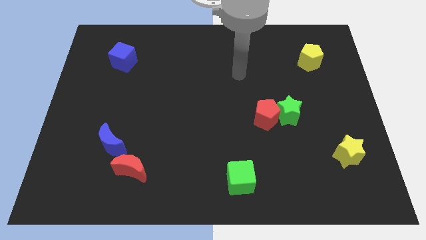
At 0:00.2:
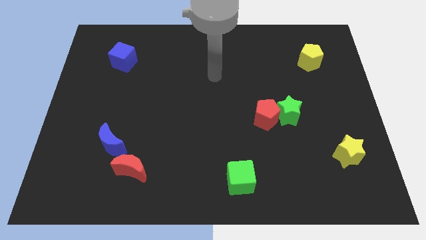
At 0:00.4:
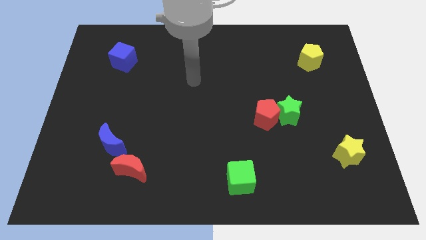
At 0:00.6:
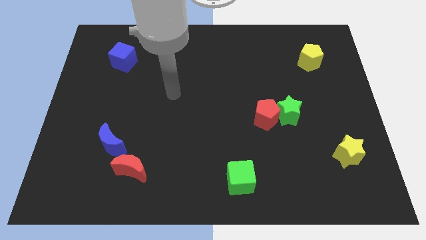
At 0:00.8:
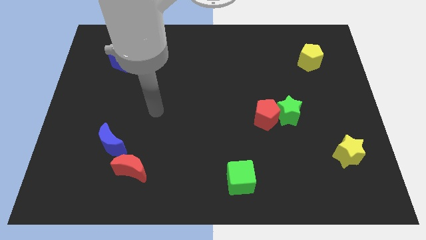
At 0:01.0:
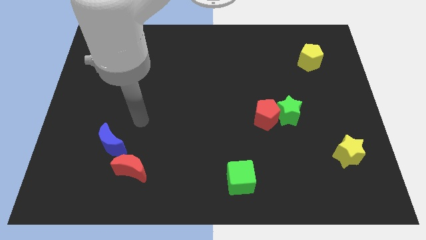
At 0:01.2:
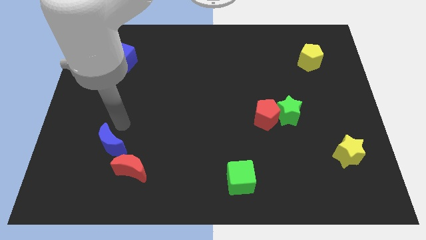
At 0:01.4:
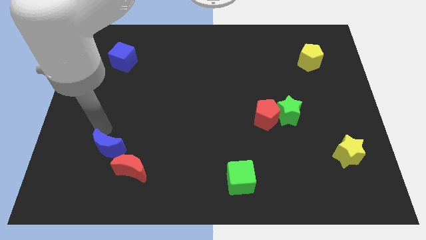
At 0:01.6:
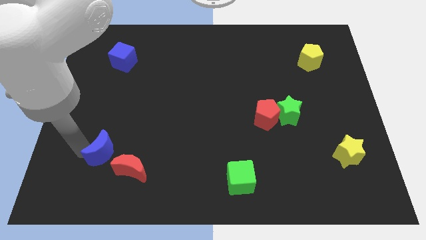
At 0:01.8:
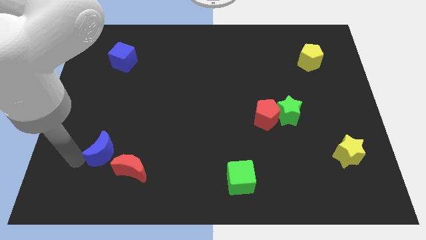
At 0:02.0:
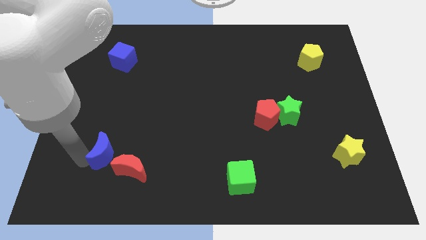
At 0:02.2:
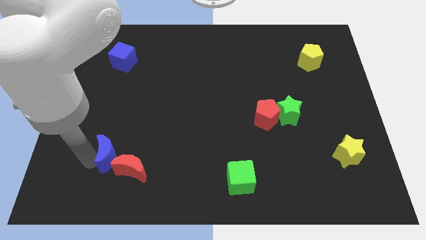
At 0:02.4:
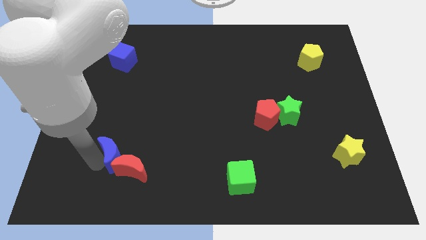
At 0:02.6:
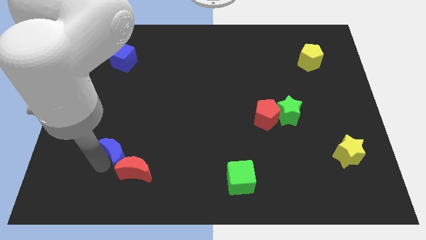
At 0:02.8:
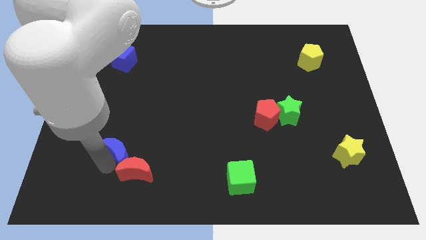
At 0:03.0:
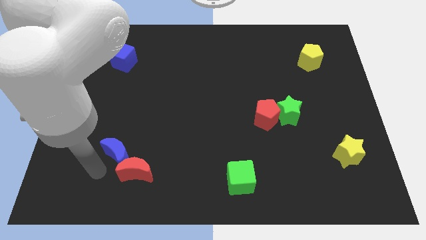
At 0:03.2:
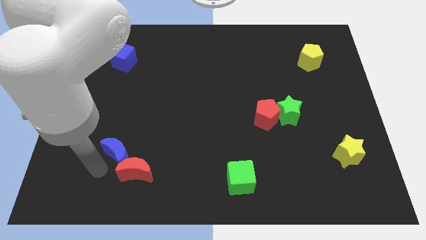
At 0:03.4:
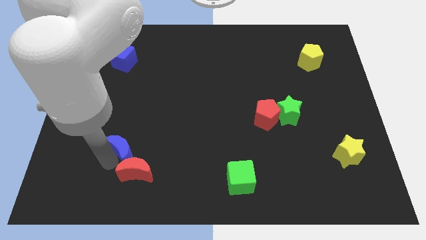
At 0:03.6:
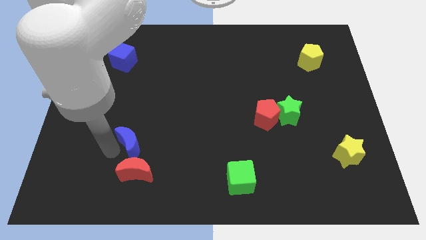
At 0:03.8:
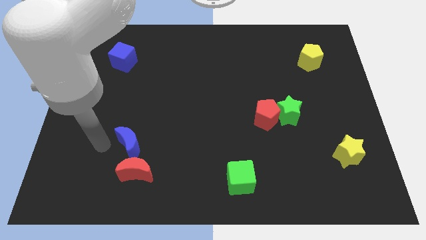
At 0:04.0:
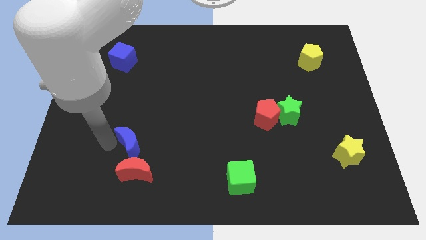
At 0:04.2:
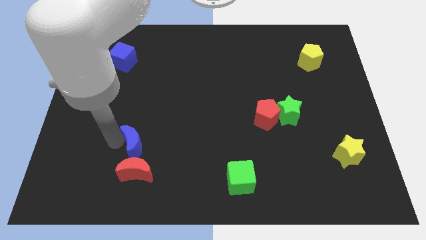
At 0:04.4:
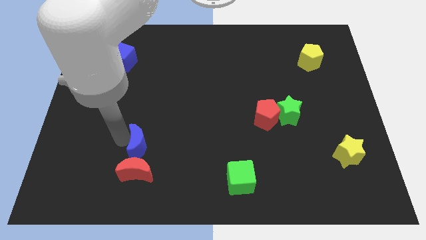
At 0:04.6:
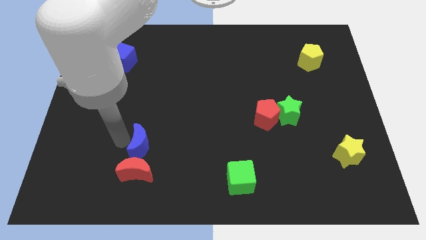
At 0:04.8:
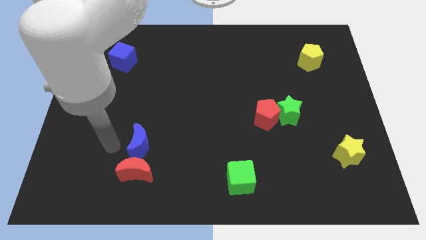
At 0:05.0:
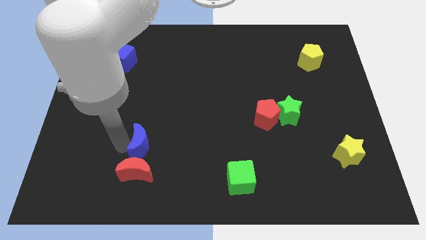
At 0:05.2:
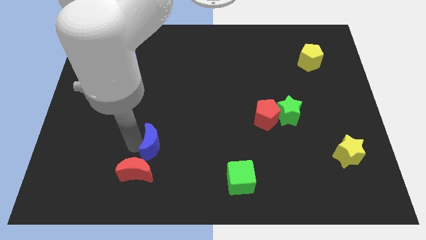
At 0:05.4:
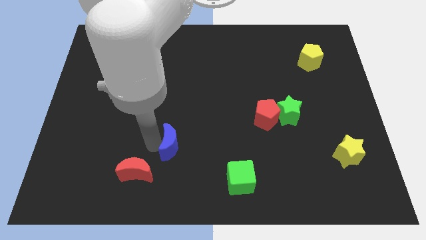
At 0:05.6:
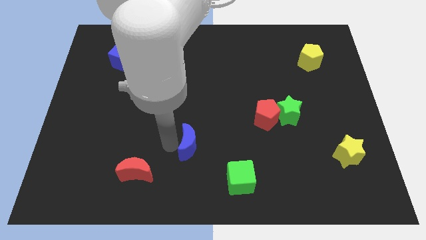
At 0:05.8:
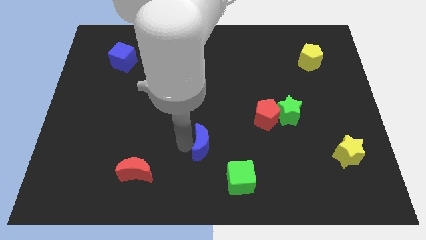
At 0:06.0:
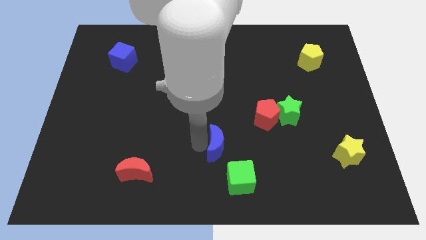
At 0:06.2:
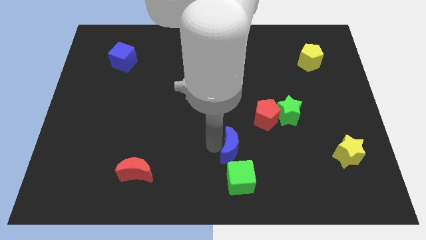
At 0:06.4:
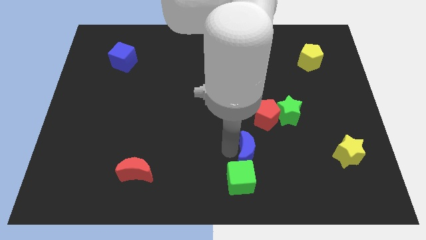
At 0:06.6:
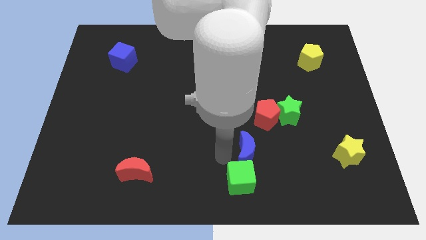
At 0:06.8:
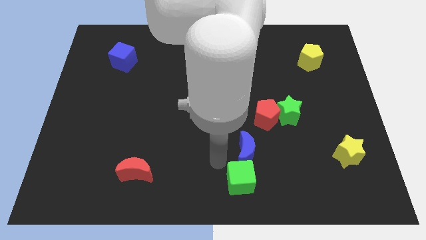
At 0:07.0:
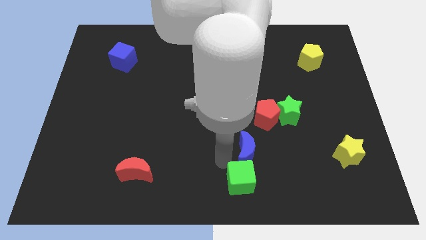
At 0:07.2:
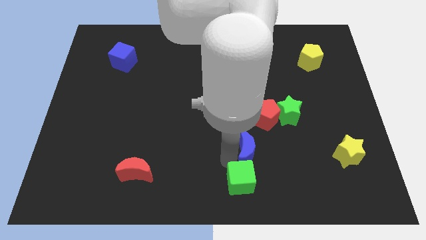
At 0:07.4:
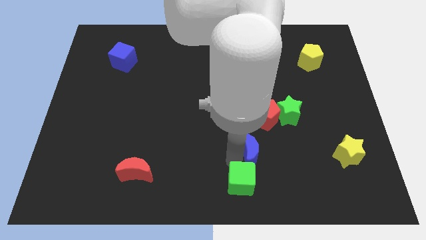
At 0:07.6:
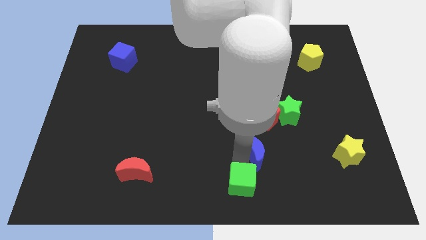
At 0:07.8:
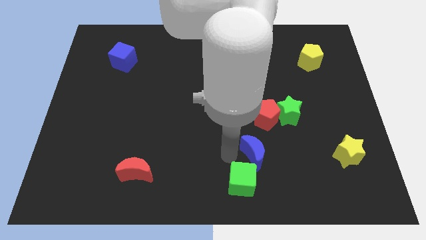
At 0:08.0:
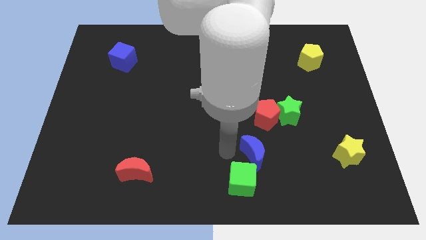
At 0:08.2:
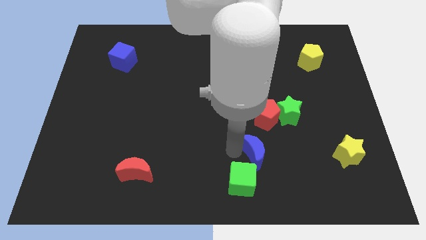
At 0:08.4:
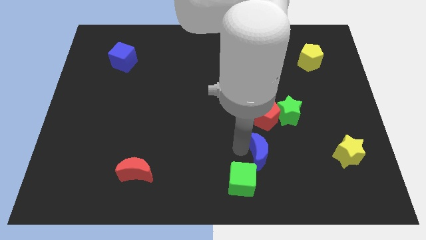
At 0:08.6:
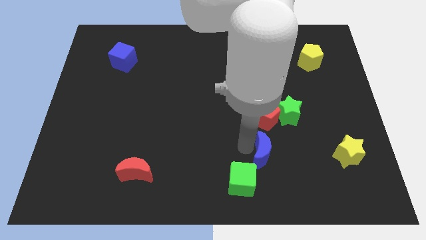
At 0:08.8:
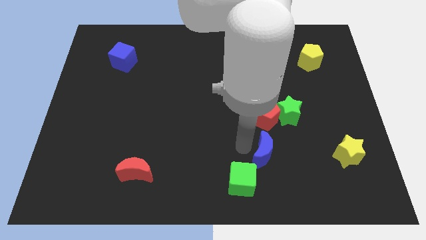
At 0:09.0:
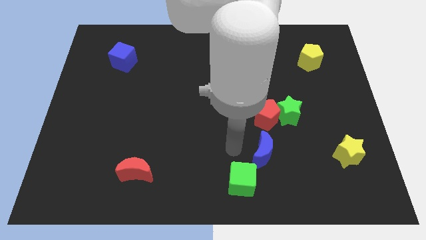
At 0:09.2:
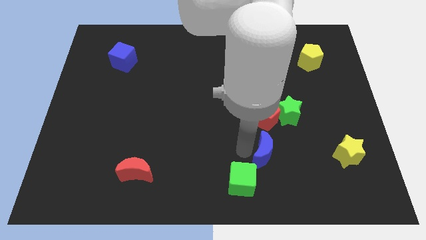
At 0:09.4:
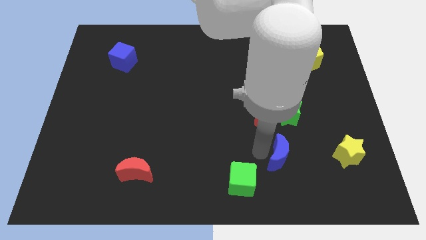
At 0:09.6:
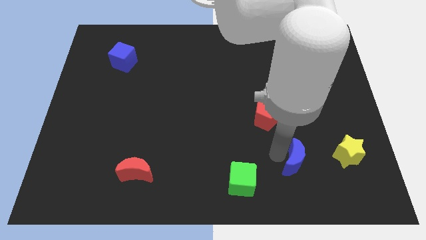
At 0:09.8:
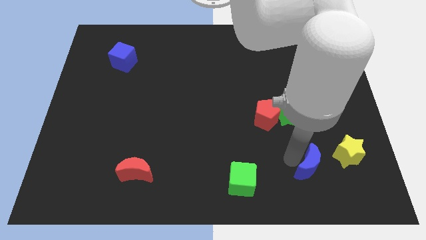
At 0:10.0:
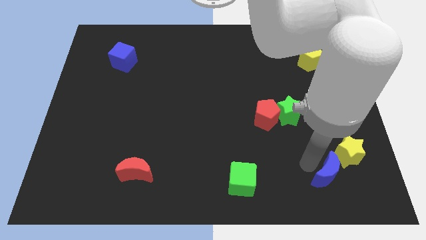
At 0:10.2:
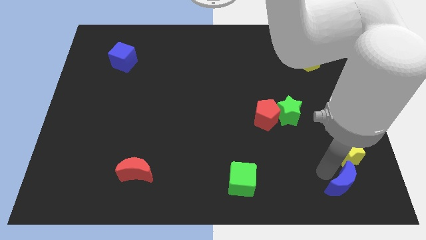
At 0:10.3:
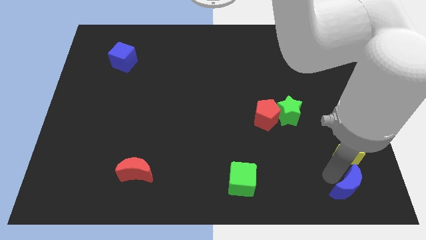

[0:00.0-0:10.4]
put the blue moon to the bottom right

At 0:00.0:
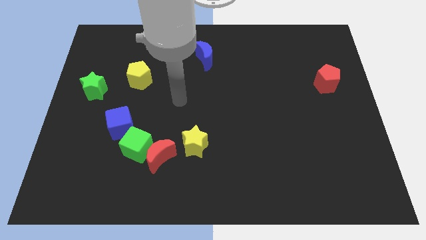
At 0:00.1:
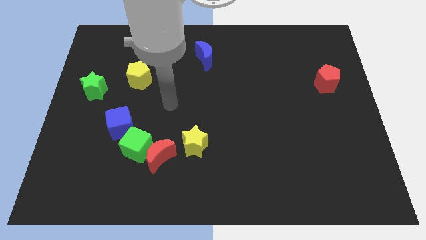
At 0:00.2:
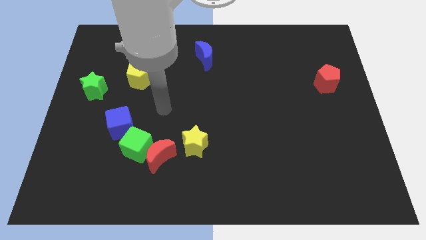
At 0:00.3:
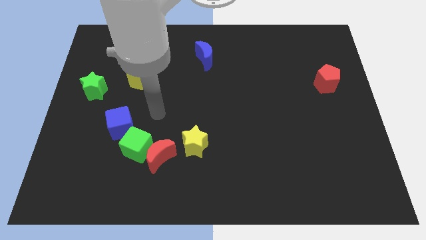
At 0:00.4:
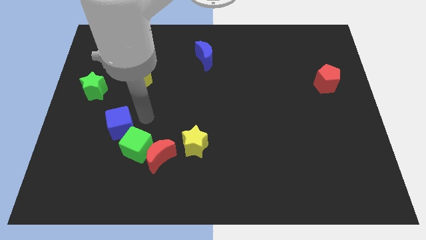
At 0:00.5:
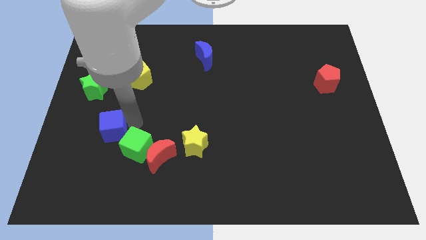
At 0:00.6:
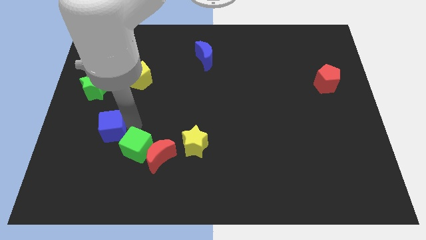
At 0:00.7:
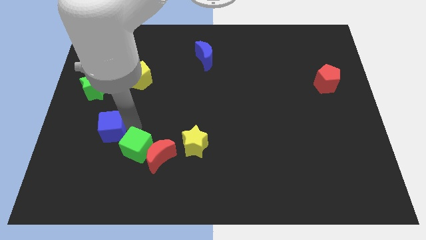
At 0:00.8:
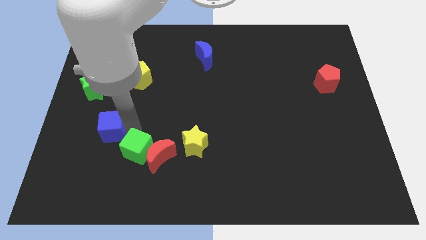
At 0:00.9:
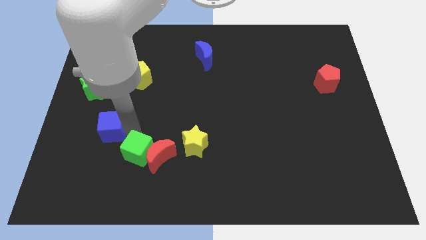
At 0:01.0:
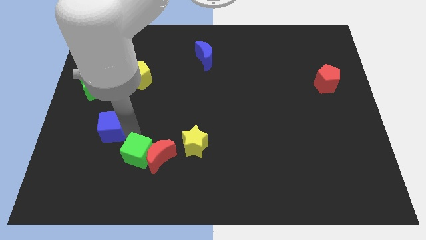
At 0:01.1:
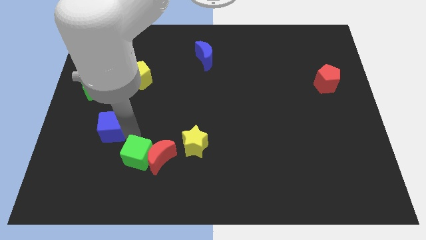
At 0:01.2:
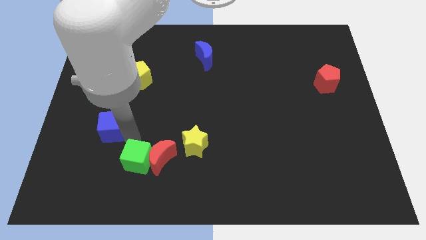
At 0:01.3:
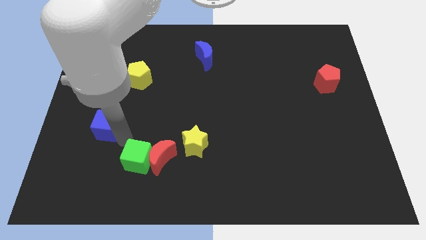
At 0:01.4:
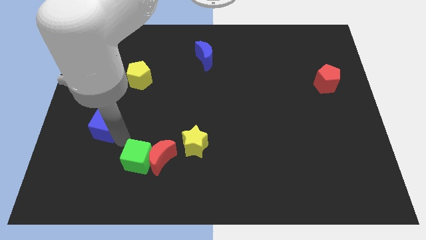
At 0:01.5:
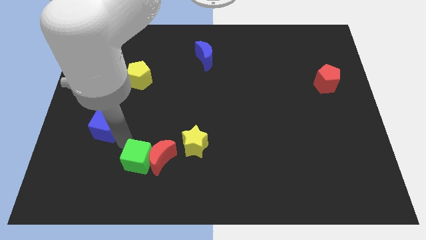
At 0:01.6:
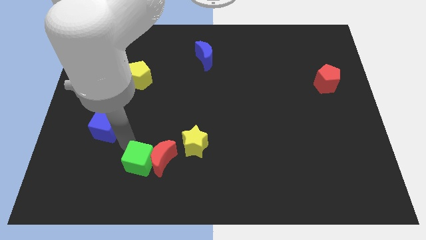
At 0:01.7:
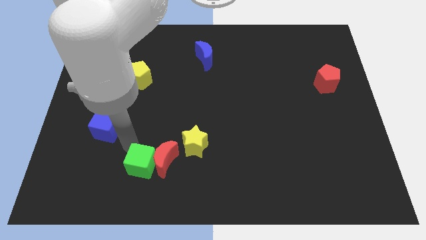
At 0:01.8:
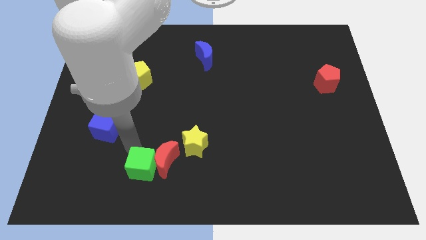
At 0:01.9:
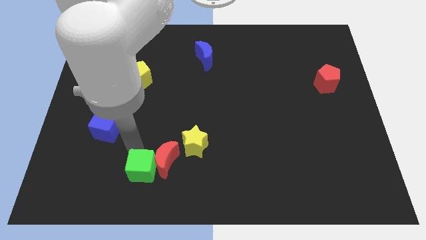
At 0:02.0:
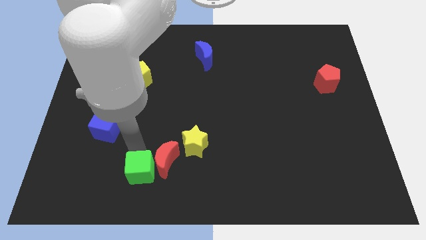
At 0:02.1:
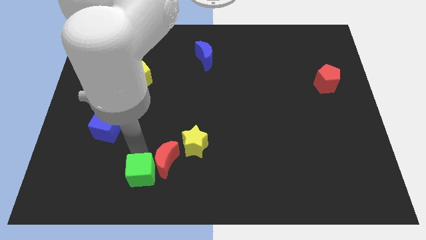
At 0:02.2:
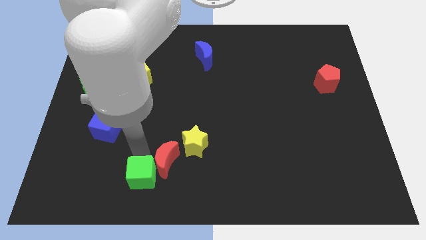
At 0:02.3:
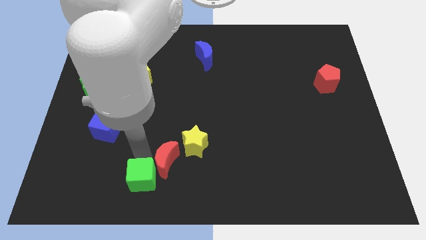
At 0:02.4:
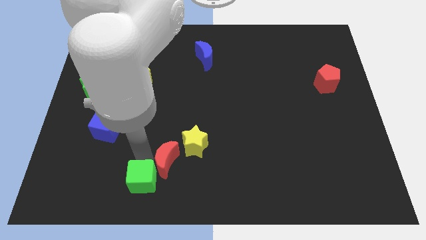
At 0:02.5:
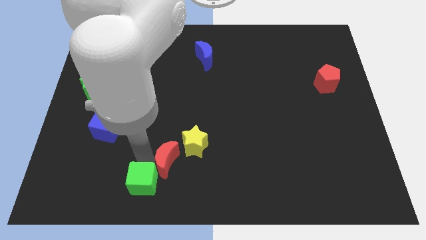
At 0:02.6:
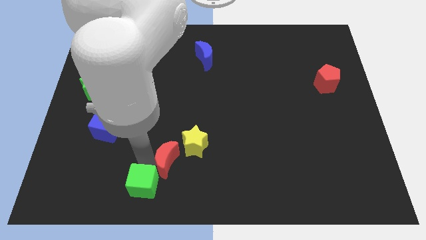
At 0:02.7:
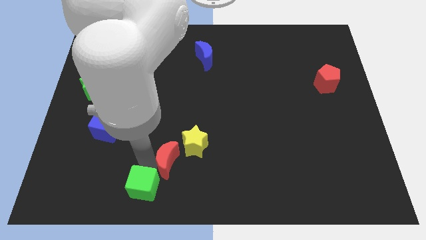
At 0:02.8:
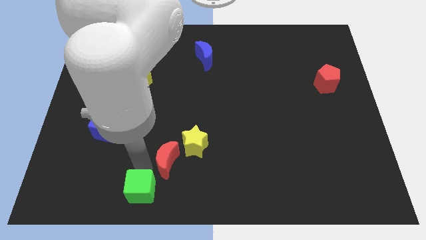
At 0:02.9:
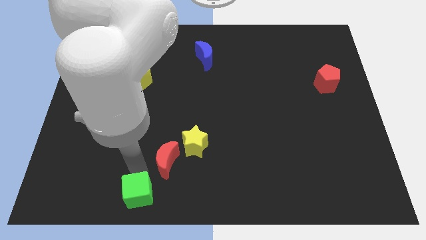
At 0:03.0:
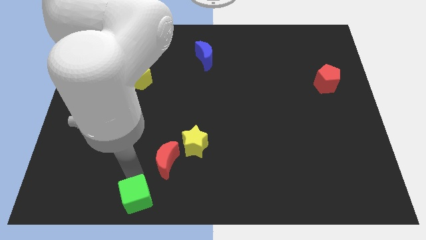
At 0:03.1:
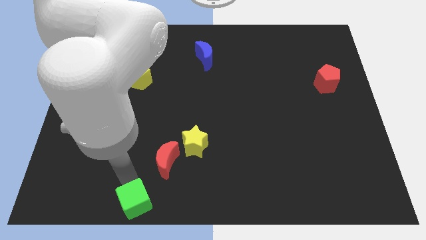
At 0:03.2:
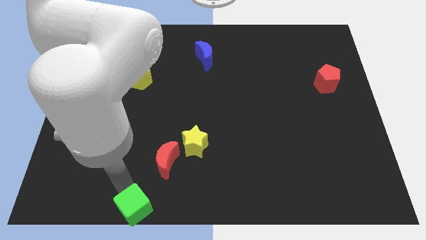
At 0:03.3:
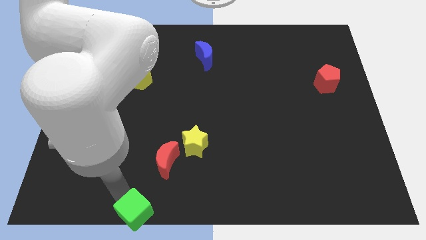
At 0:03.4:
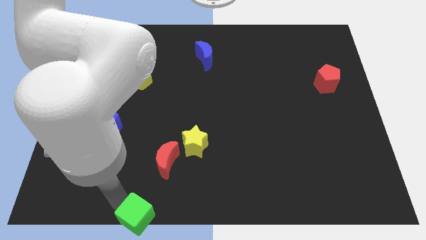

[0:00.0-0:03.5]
put the green cube to the bottom side

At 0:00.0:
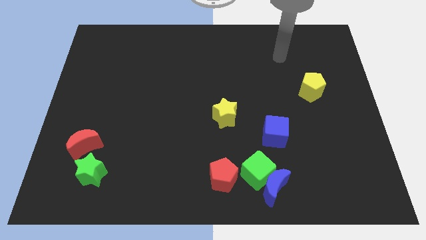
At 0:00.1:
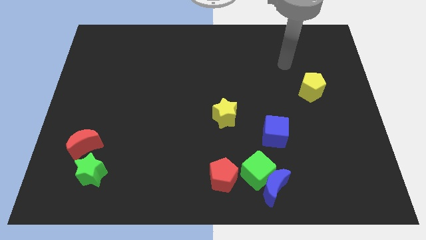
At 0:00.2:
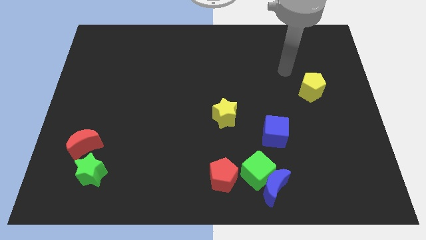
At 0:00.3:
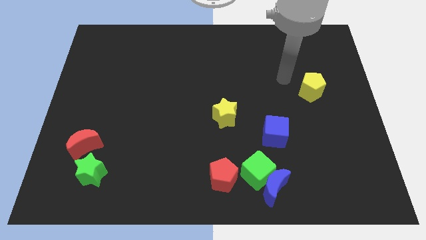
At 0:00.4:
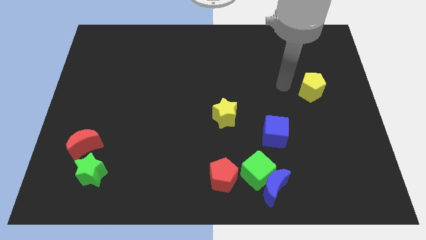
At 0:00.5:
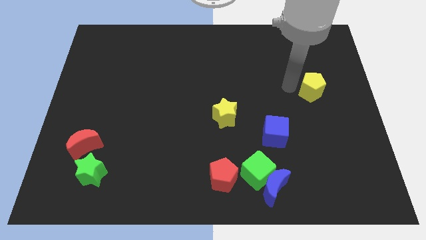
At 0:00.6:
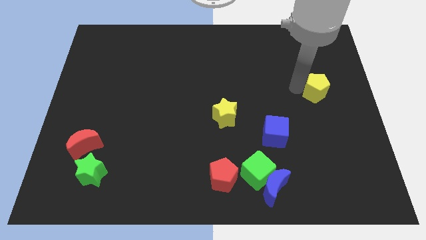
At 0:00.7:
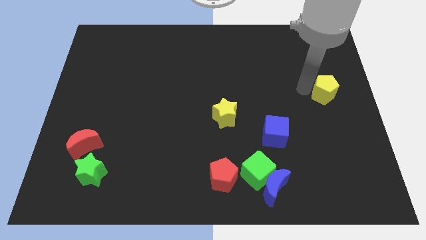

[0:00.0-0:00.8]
move the yellow pentagon to the right side
